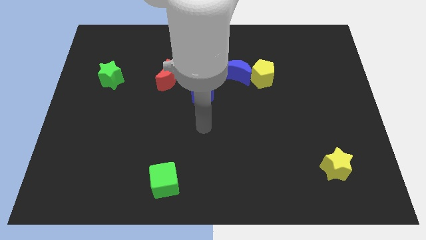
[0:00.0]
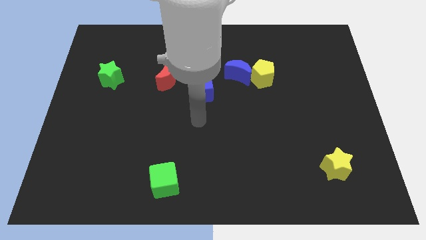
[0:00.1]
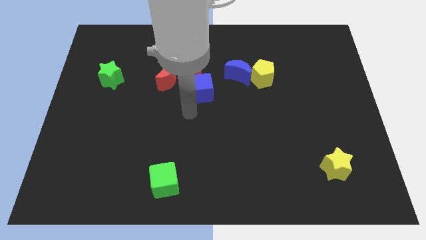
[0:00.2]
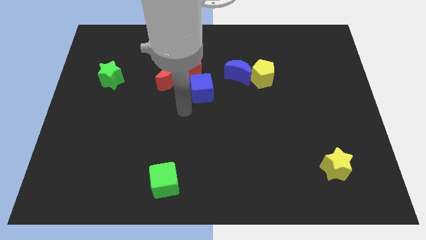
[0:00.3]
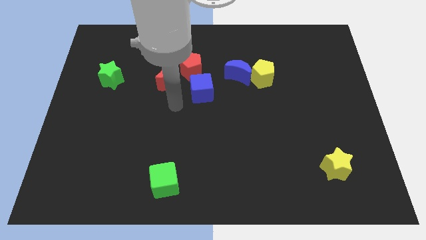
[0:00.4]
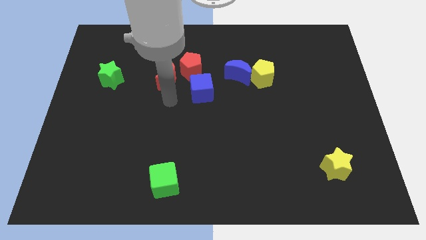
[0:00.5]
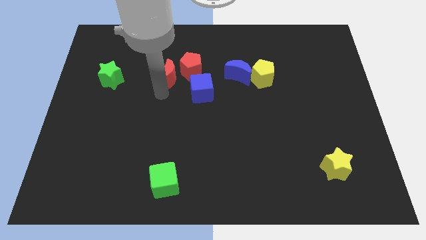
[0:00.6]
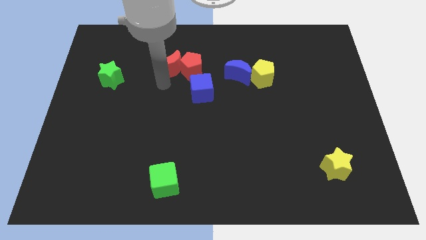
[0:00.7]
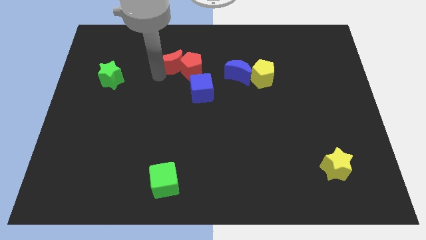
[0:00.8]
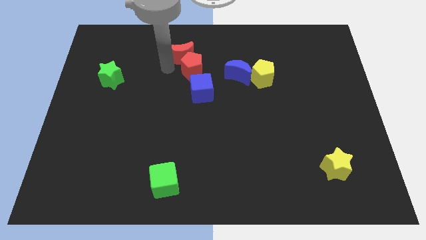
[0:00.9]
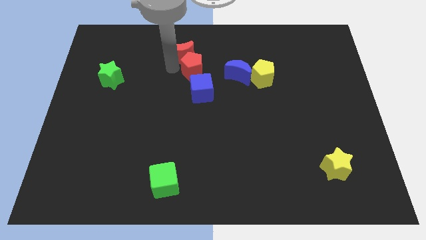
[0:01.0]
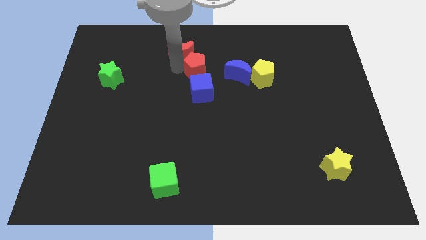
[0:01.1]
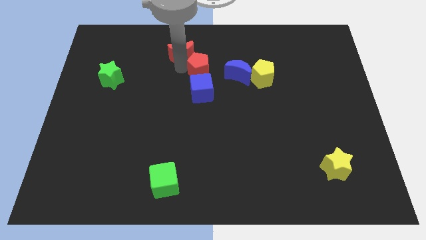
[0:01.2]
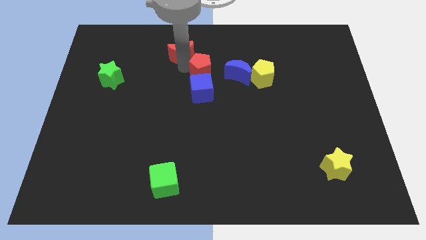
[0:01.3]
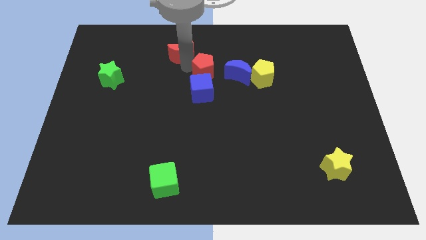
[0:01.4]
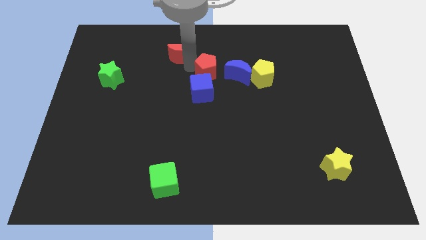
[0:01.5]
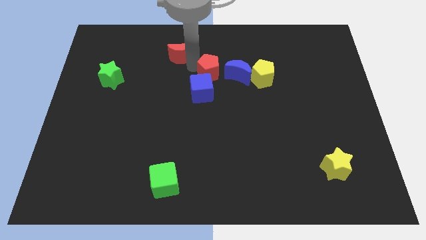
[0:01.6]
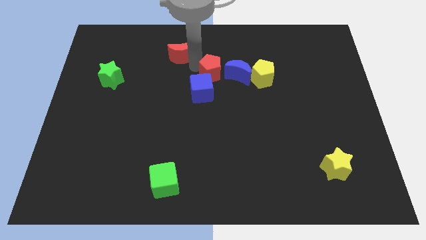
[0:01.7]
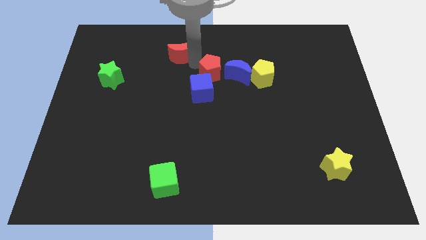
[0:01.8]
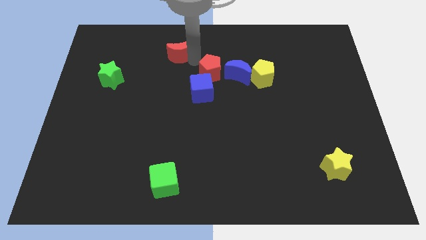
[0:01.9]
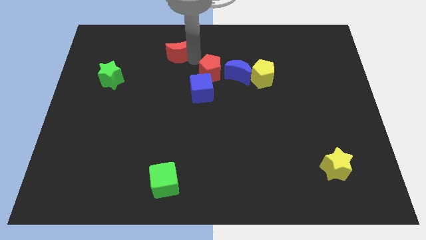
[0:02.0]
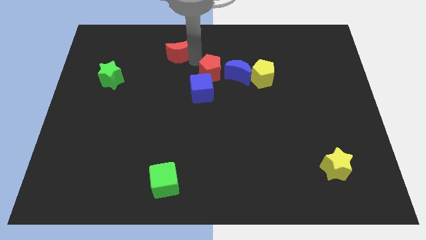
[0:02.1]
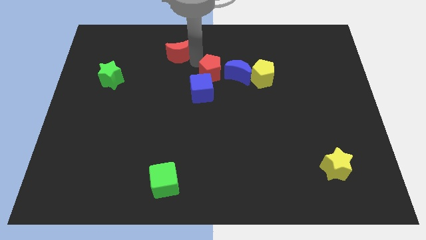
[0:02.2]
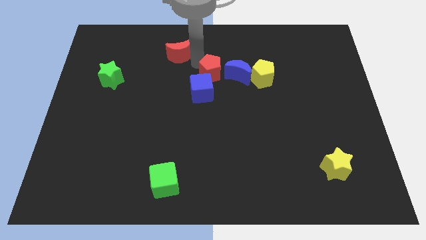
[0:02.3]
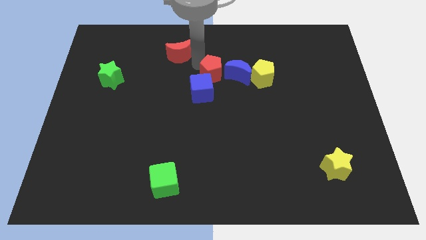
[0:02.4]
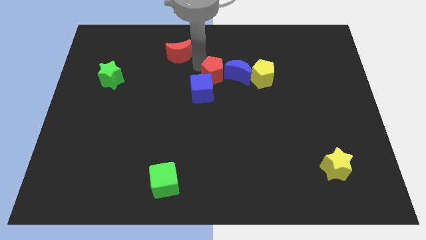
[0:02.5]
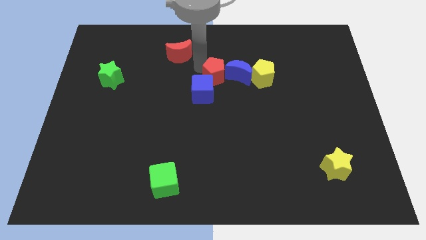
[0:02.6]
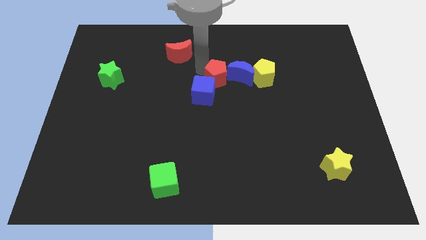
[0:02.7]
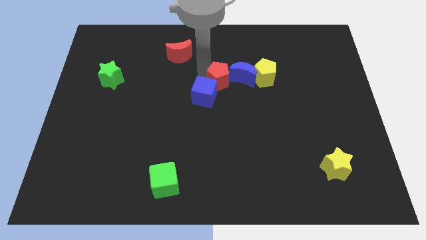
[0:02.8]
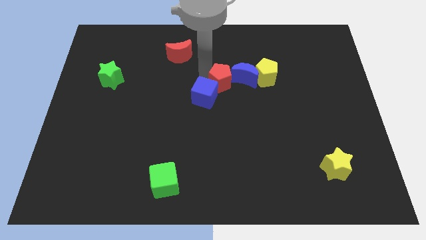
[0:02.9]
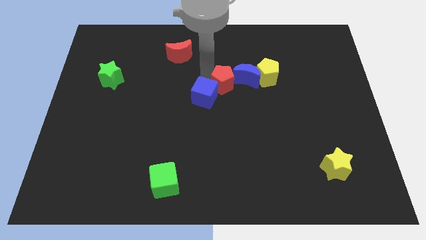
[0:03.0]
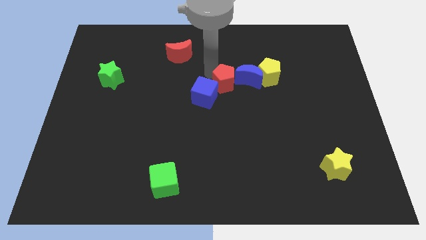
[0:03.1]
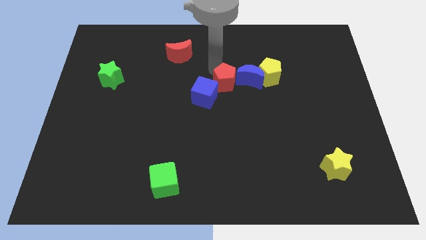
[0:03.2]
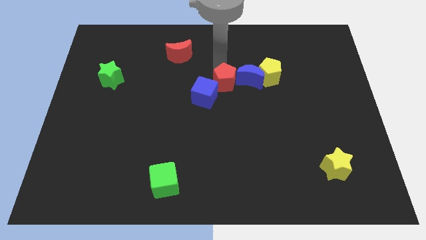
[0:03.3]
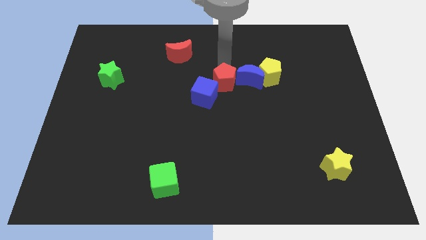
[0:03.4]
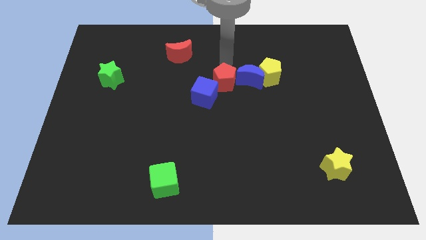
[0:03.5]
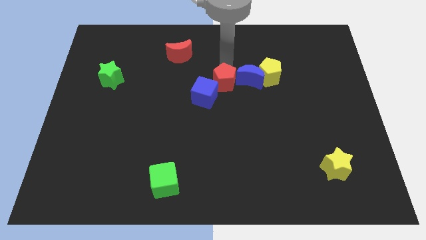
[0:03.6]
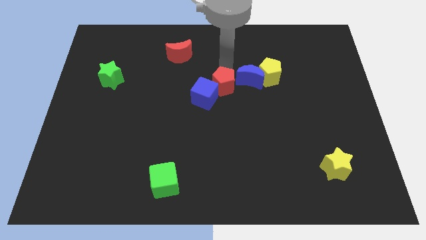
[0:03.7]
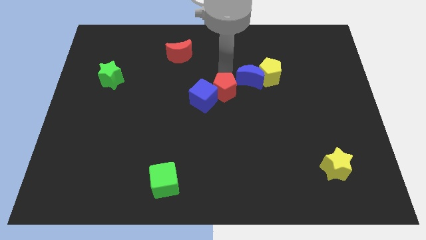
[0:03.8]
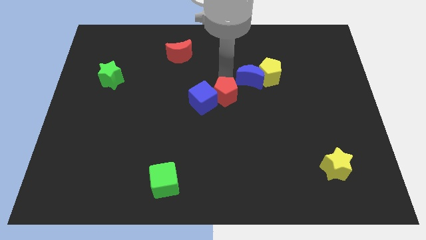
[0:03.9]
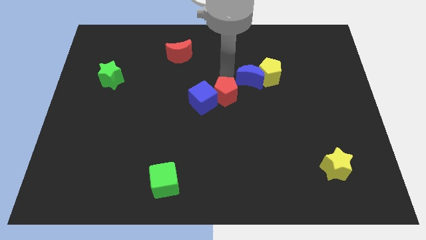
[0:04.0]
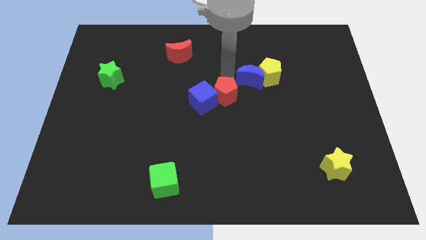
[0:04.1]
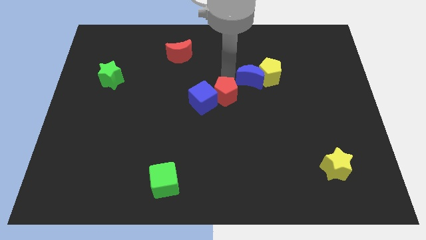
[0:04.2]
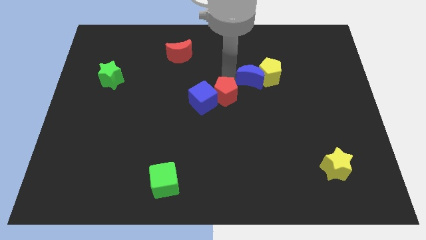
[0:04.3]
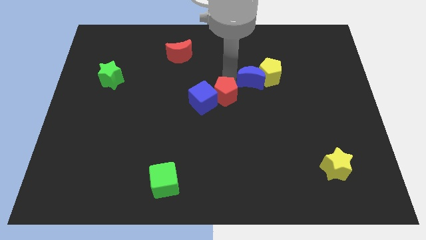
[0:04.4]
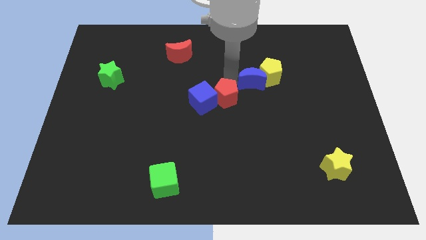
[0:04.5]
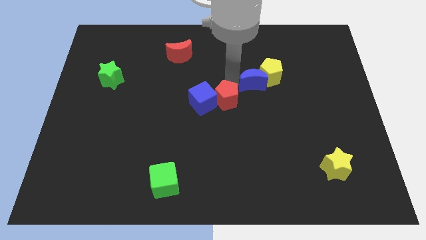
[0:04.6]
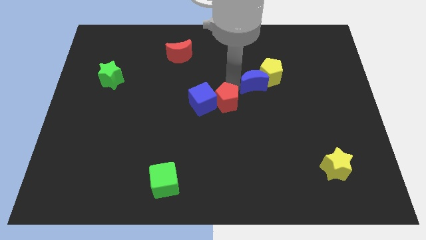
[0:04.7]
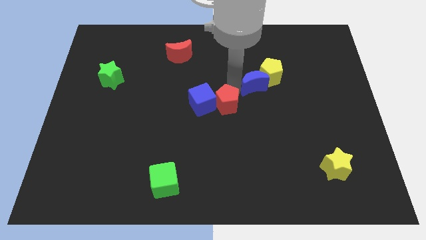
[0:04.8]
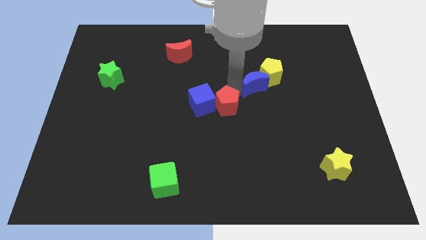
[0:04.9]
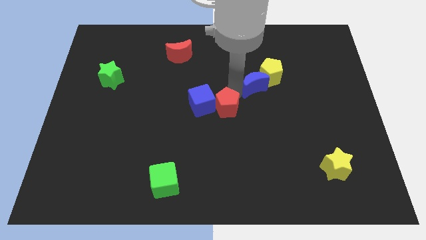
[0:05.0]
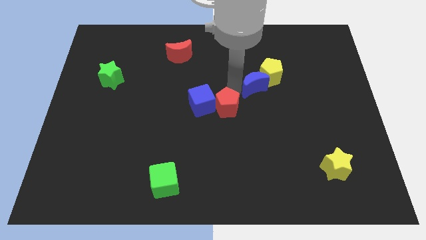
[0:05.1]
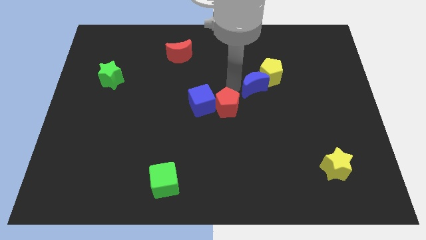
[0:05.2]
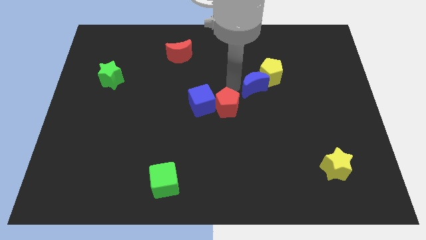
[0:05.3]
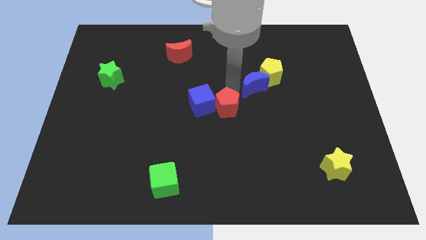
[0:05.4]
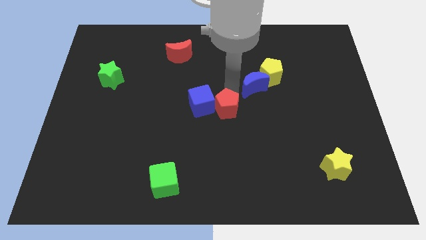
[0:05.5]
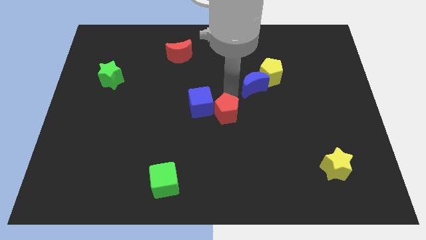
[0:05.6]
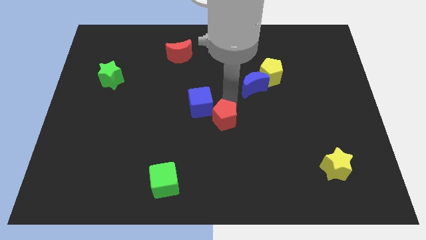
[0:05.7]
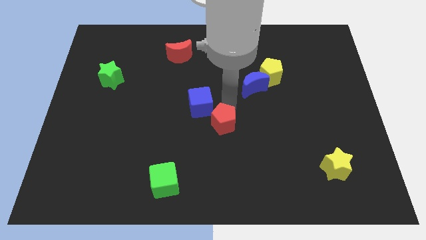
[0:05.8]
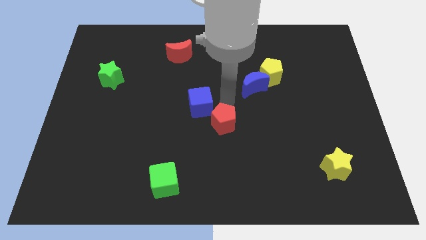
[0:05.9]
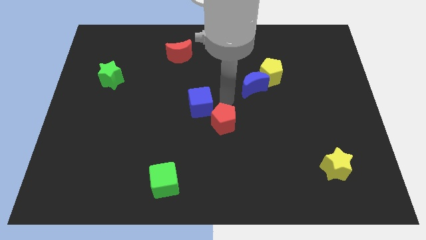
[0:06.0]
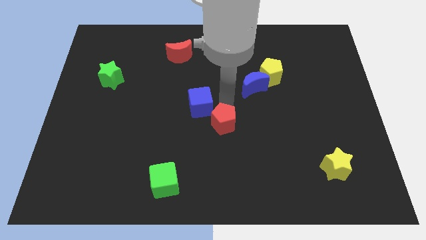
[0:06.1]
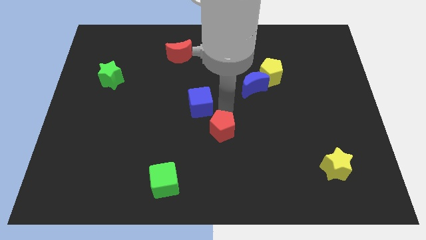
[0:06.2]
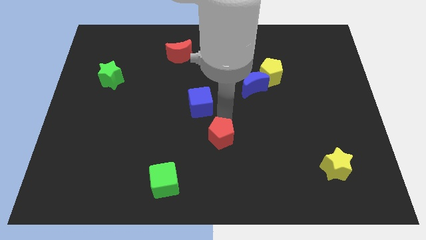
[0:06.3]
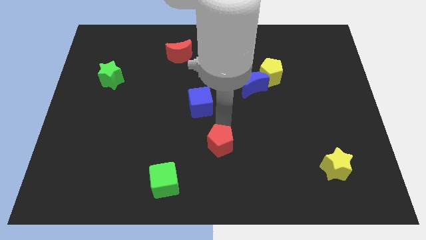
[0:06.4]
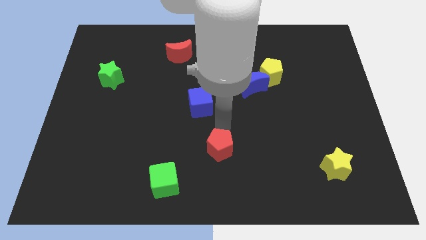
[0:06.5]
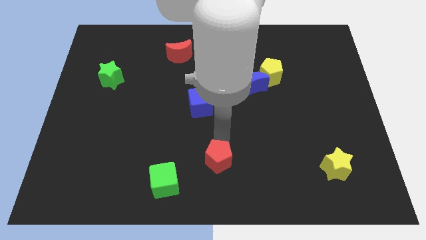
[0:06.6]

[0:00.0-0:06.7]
push the red pentagon to the bottom side

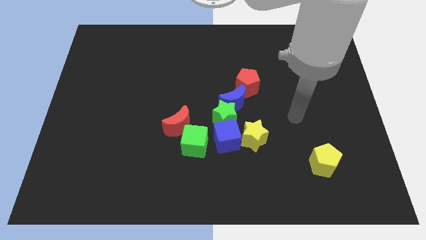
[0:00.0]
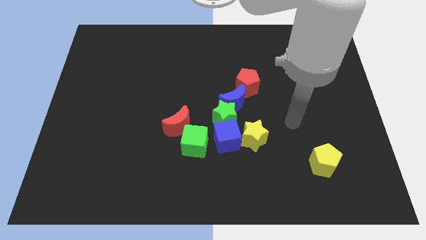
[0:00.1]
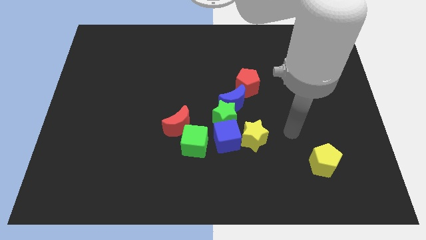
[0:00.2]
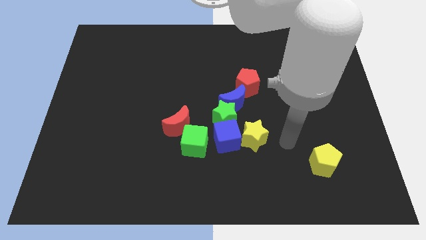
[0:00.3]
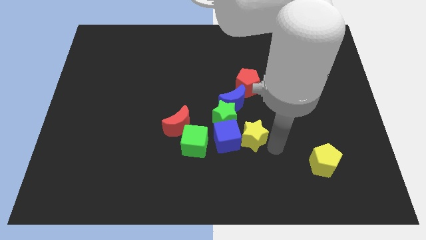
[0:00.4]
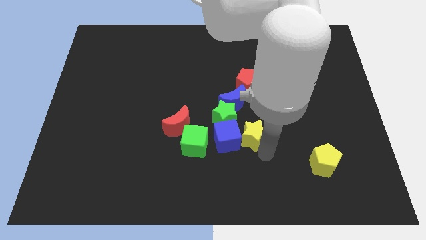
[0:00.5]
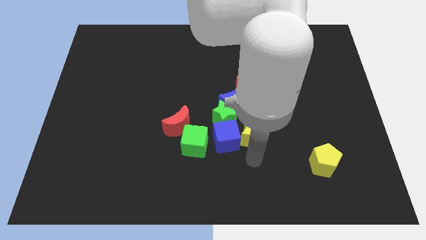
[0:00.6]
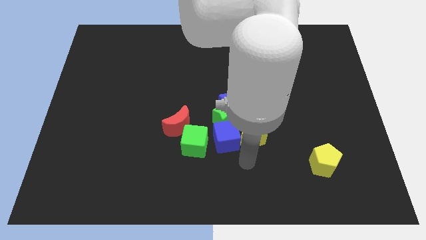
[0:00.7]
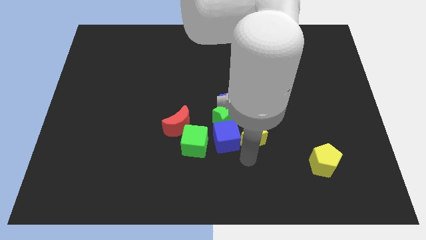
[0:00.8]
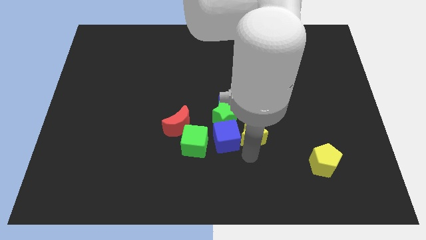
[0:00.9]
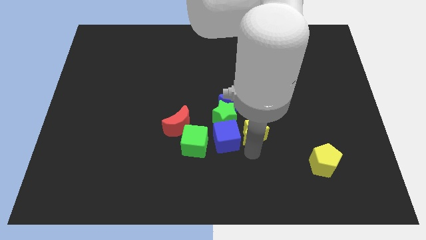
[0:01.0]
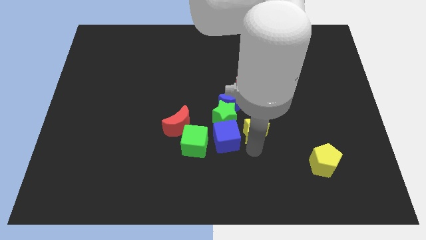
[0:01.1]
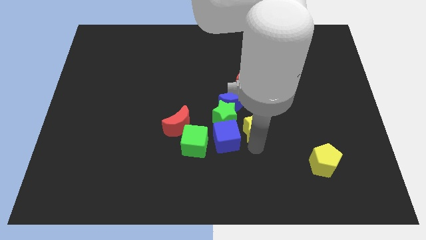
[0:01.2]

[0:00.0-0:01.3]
push the yellow star to the middle of the board
